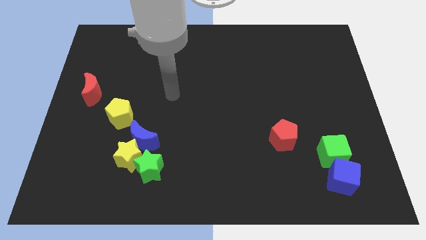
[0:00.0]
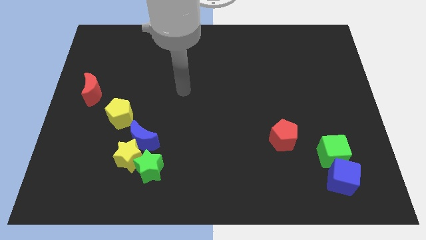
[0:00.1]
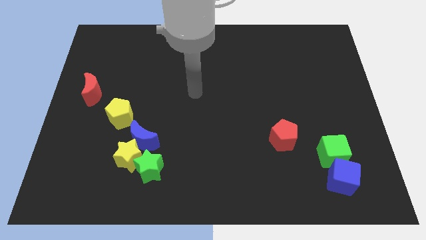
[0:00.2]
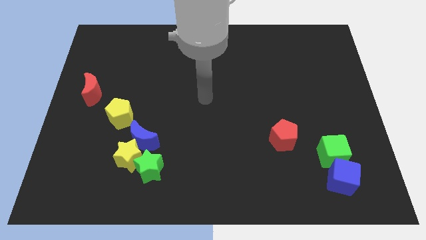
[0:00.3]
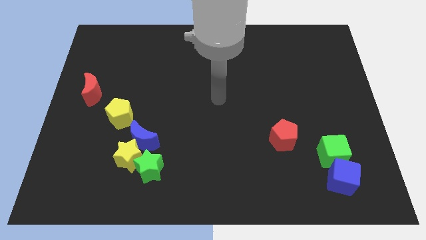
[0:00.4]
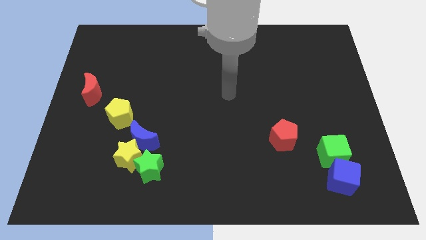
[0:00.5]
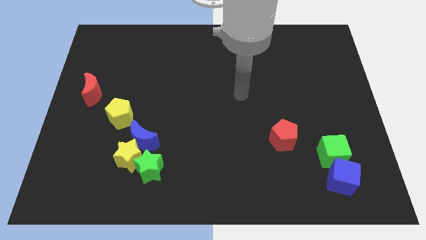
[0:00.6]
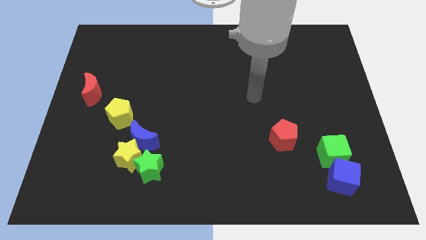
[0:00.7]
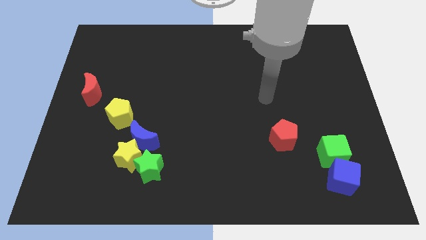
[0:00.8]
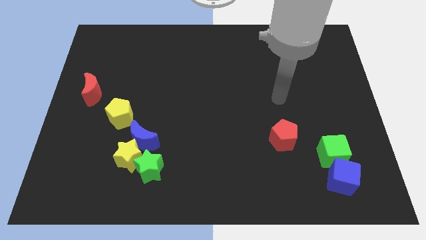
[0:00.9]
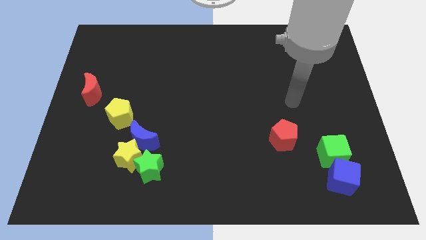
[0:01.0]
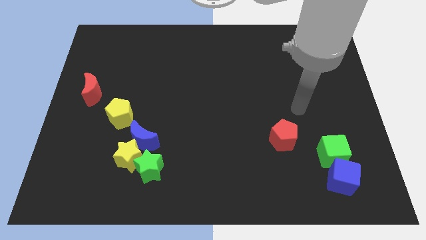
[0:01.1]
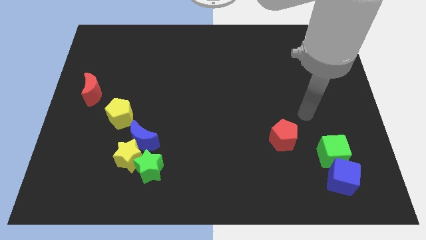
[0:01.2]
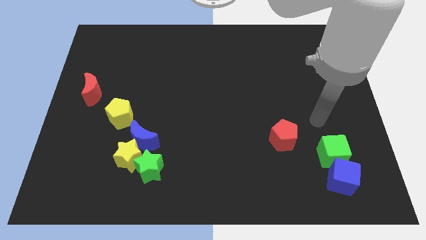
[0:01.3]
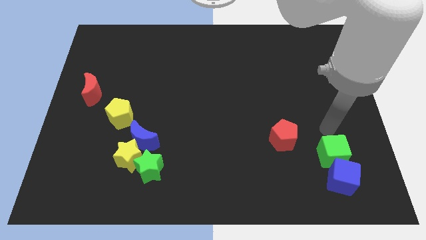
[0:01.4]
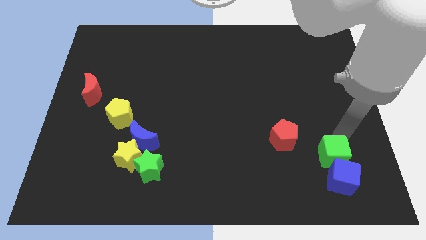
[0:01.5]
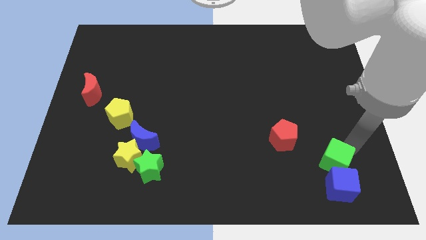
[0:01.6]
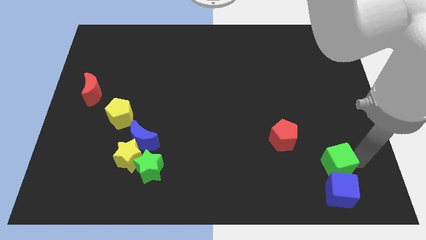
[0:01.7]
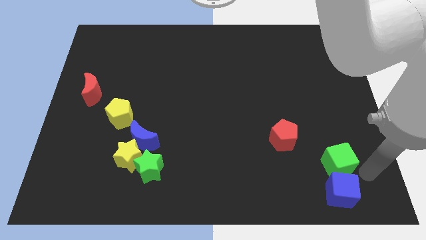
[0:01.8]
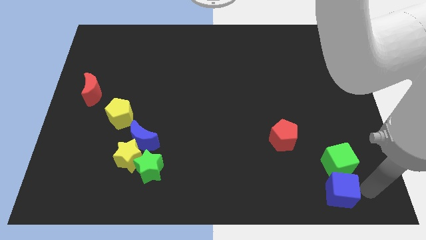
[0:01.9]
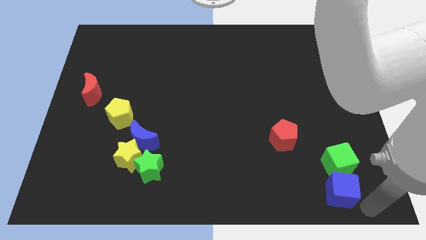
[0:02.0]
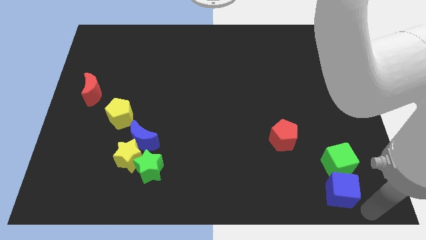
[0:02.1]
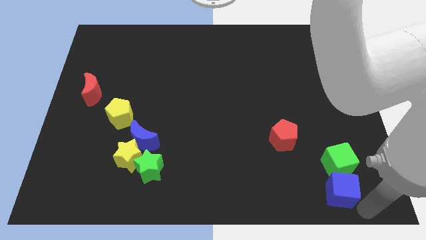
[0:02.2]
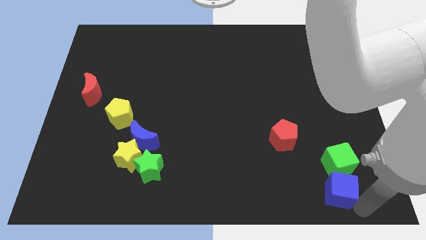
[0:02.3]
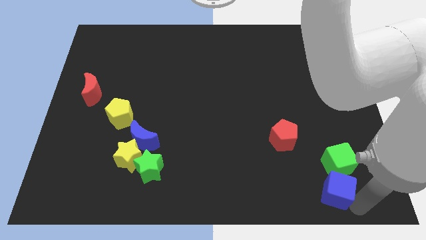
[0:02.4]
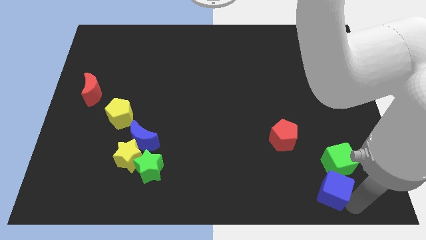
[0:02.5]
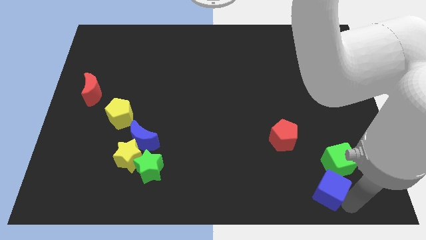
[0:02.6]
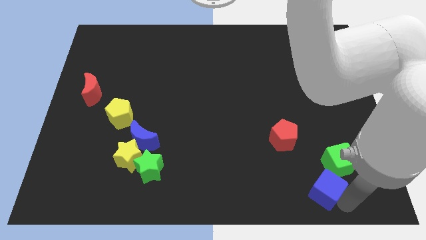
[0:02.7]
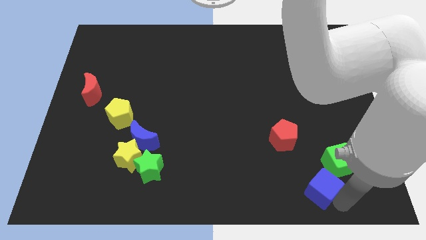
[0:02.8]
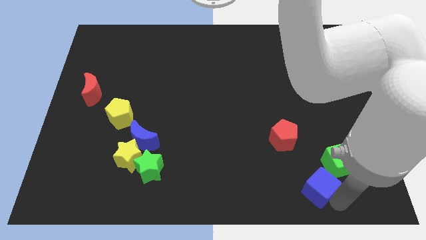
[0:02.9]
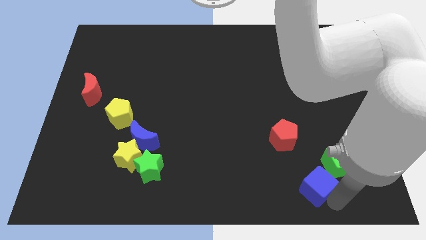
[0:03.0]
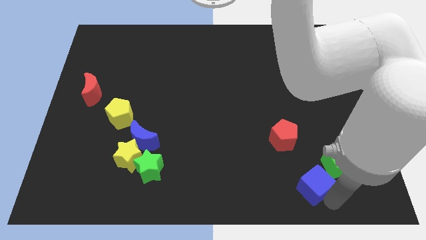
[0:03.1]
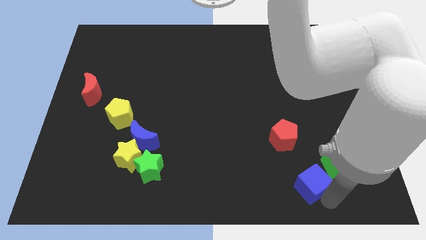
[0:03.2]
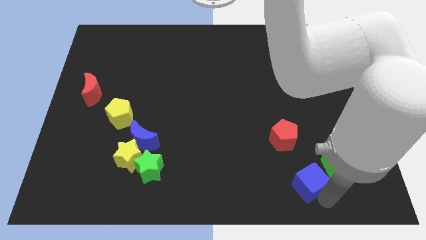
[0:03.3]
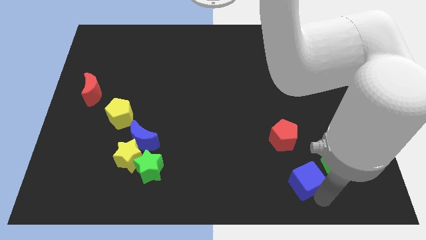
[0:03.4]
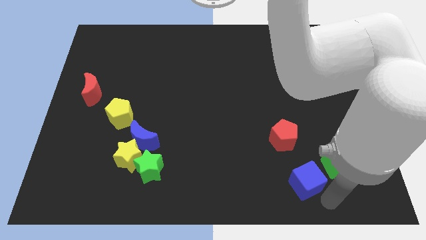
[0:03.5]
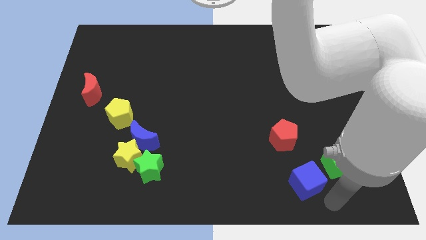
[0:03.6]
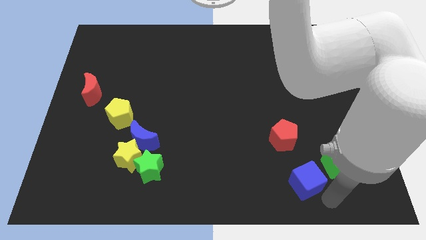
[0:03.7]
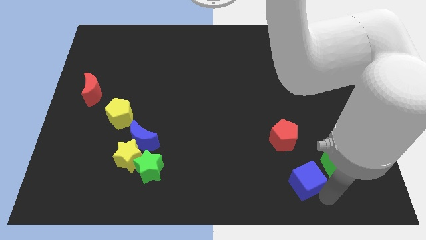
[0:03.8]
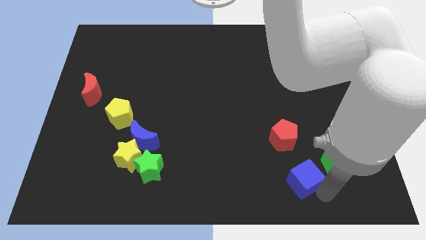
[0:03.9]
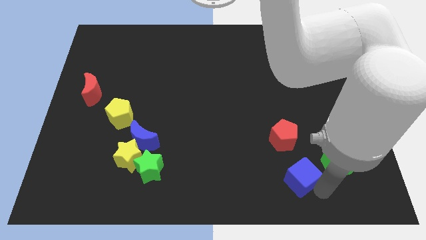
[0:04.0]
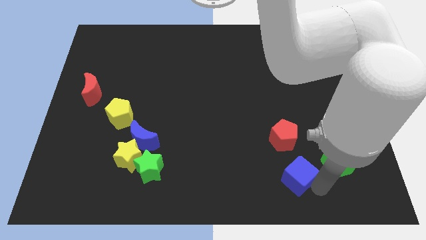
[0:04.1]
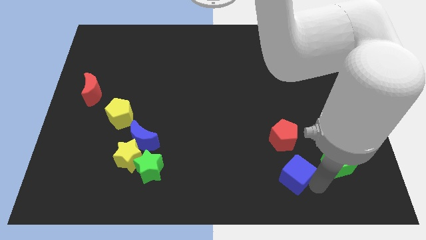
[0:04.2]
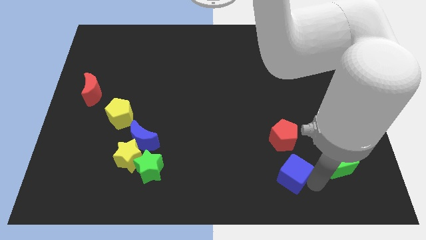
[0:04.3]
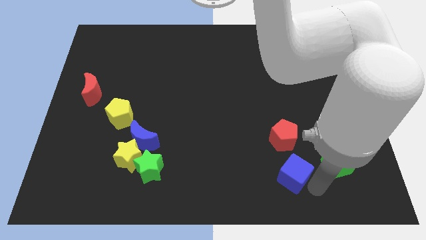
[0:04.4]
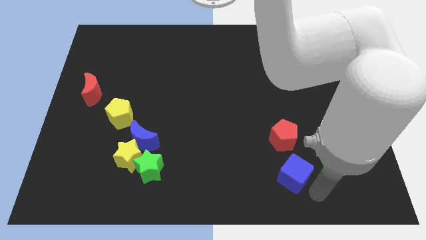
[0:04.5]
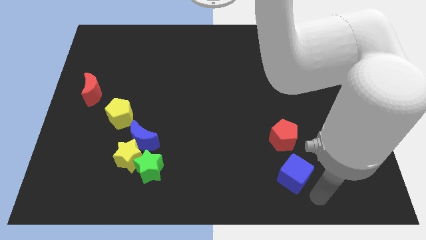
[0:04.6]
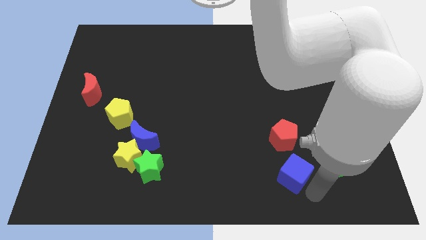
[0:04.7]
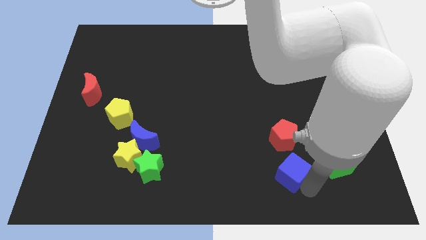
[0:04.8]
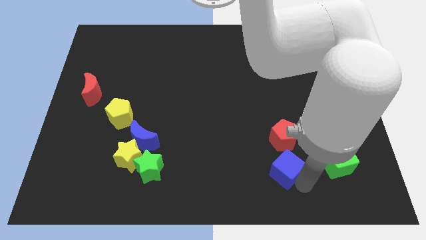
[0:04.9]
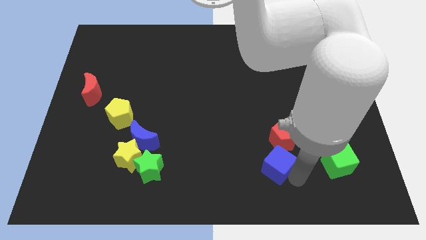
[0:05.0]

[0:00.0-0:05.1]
slide the blue cube diagonally down and to the left of the red pentagon

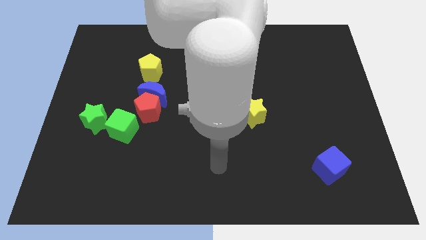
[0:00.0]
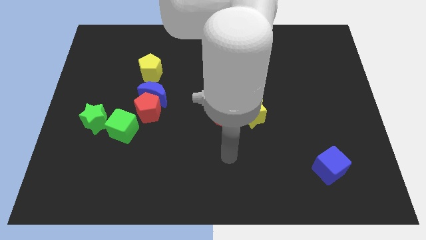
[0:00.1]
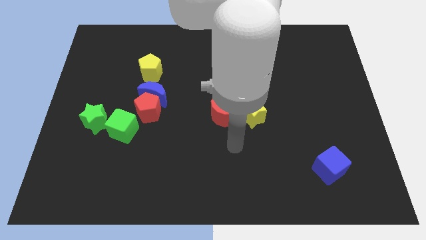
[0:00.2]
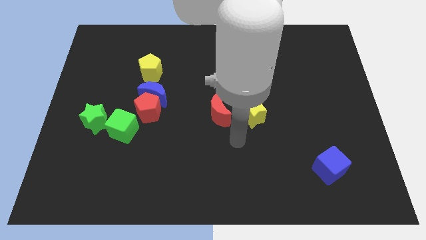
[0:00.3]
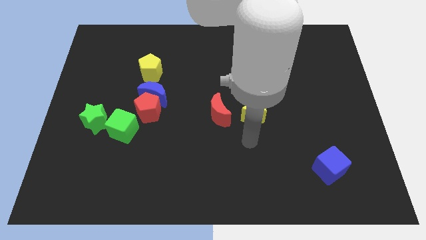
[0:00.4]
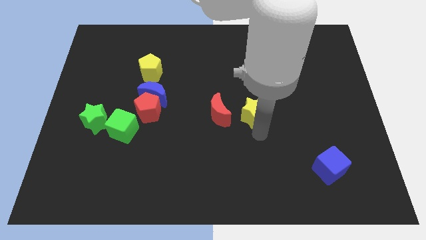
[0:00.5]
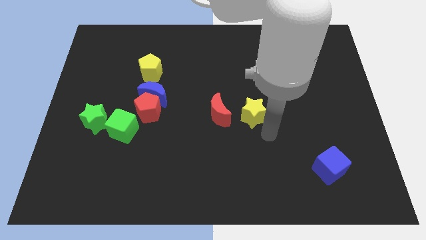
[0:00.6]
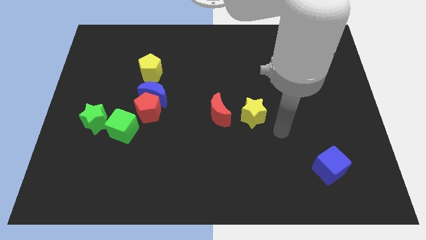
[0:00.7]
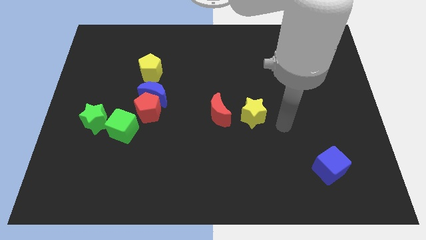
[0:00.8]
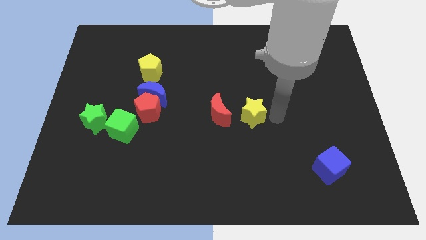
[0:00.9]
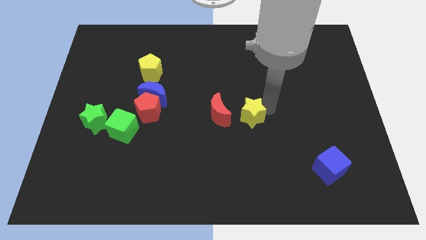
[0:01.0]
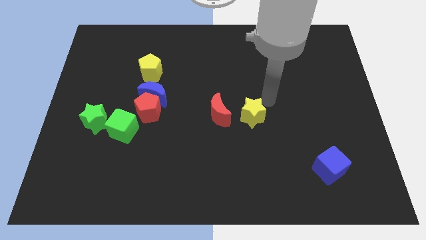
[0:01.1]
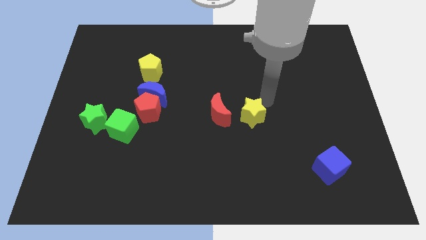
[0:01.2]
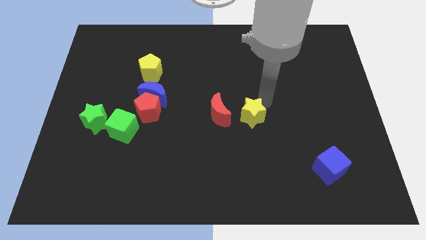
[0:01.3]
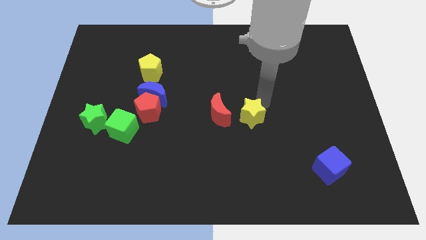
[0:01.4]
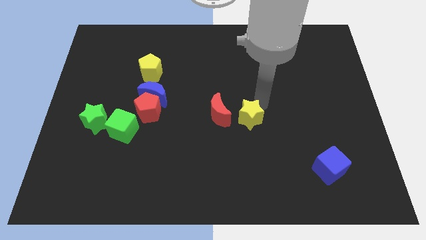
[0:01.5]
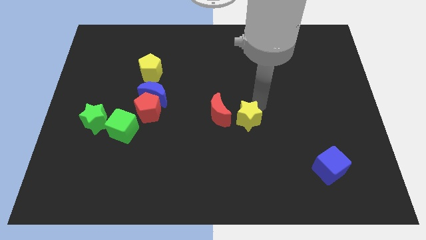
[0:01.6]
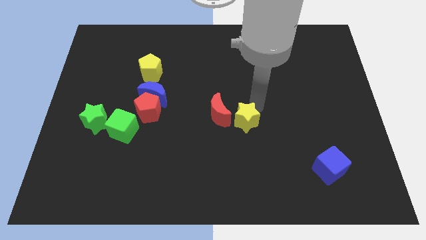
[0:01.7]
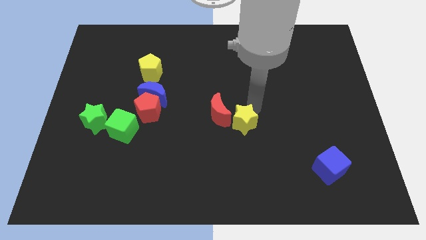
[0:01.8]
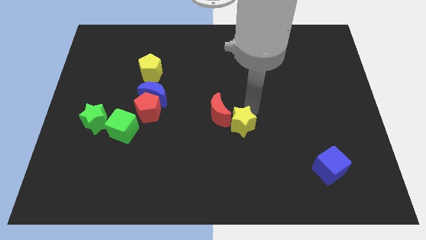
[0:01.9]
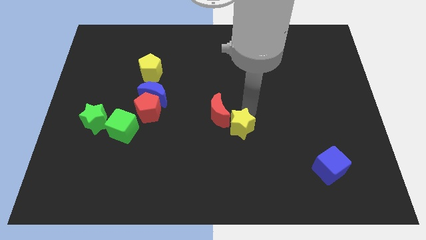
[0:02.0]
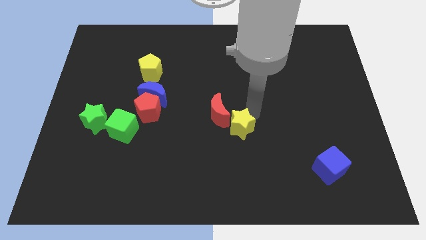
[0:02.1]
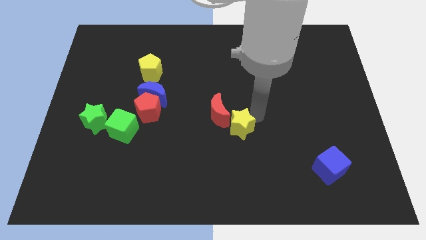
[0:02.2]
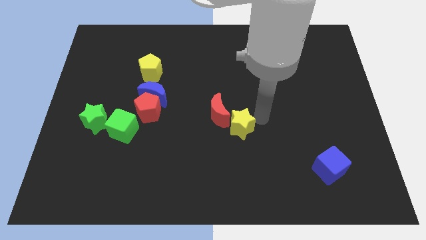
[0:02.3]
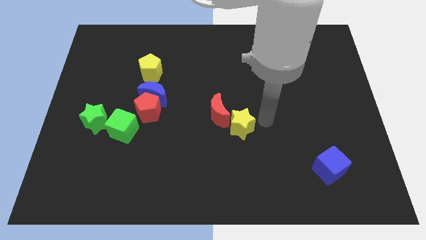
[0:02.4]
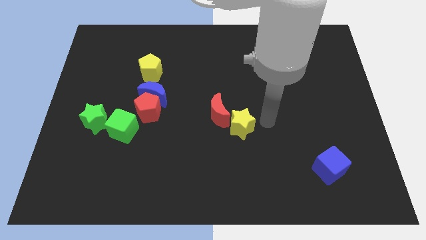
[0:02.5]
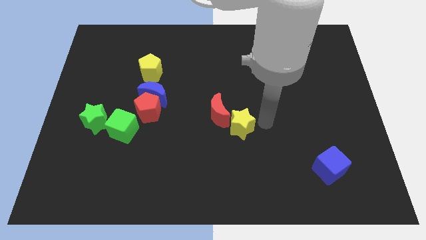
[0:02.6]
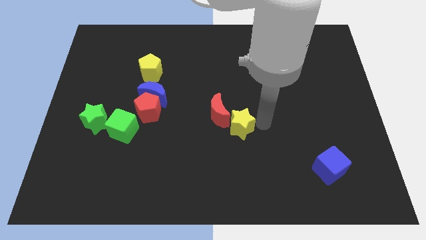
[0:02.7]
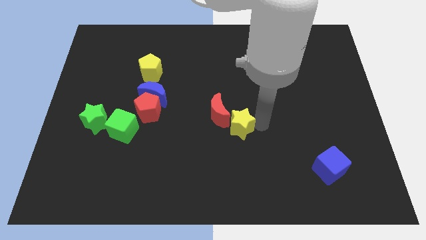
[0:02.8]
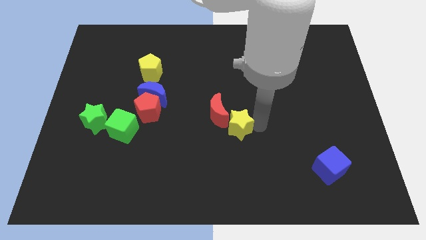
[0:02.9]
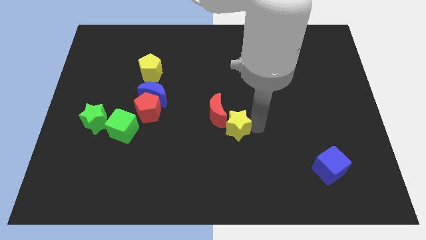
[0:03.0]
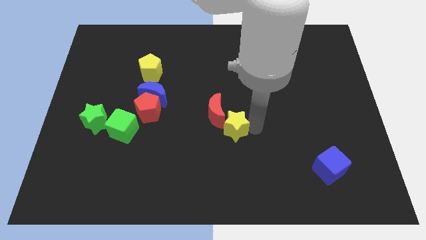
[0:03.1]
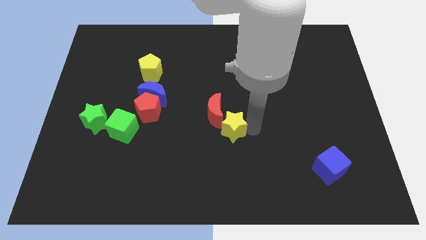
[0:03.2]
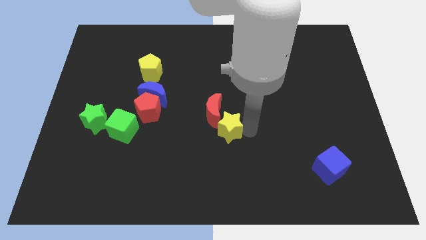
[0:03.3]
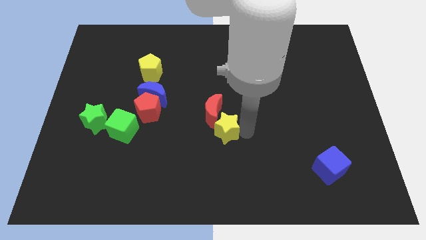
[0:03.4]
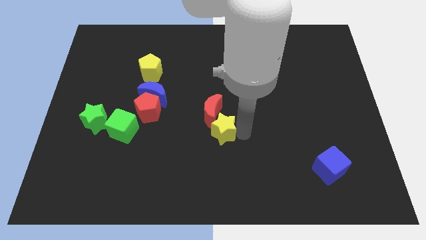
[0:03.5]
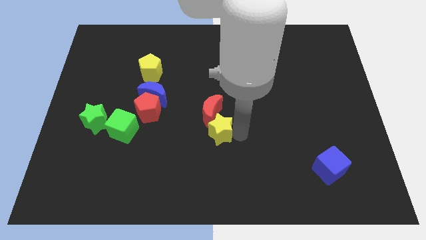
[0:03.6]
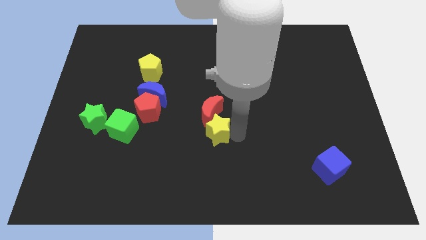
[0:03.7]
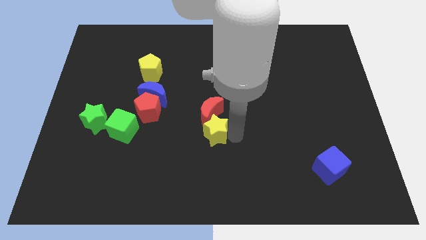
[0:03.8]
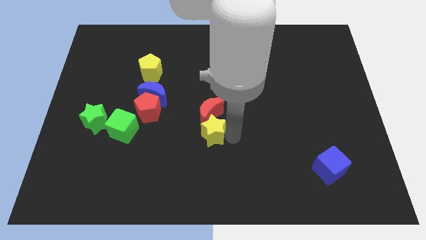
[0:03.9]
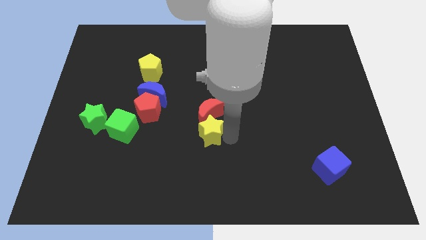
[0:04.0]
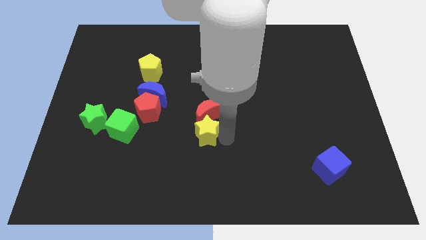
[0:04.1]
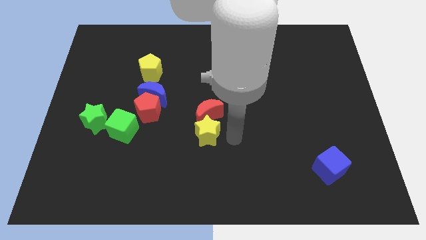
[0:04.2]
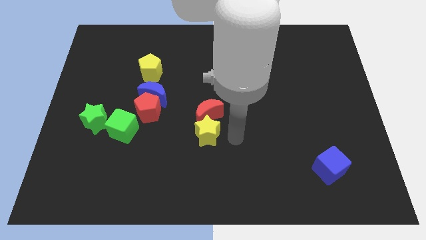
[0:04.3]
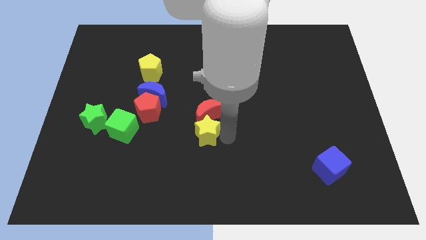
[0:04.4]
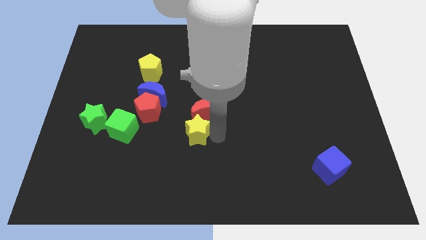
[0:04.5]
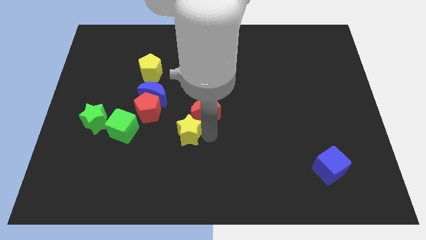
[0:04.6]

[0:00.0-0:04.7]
move the yellow star diagonally down and to the right of the red pentagon
